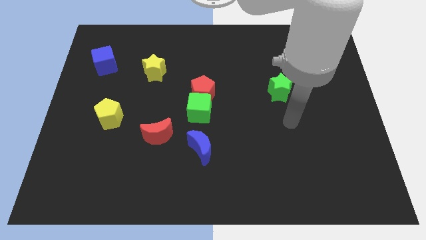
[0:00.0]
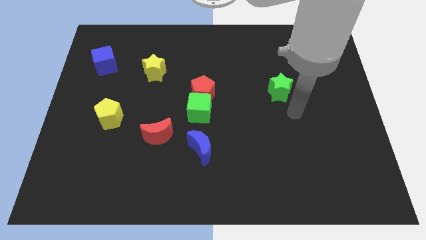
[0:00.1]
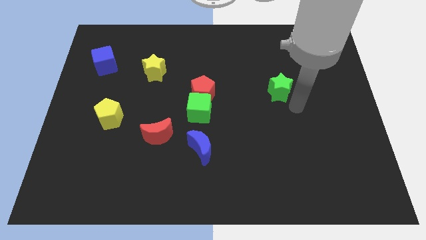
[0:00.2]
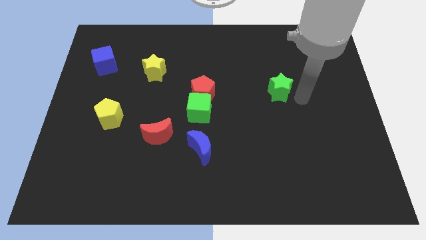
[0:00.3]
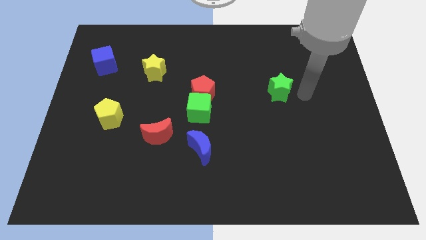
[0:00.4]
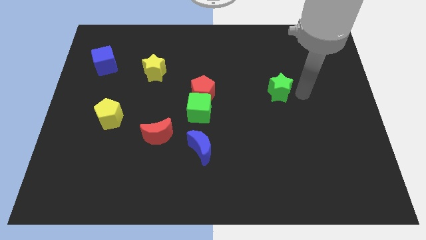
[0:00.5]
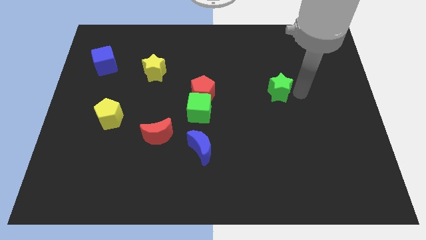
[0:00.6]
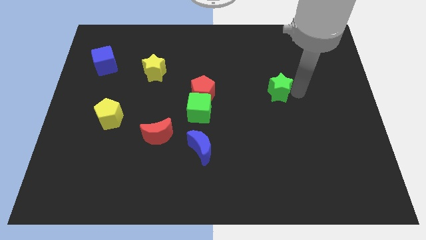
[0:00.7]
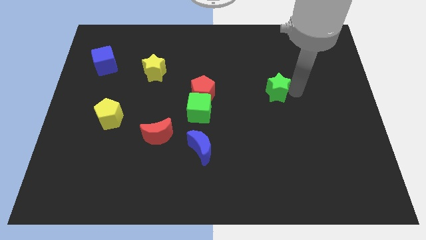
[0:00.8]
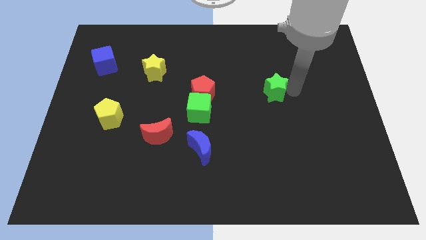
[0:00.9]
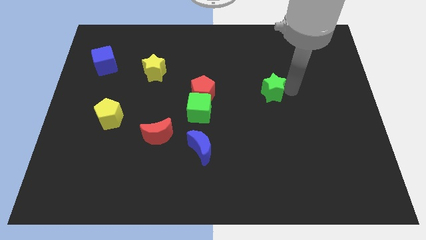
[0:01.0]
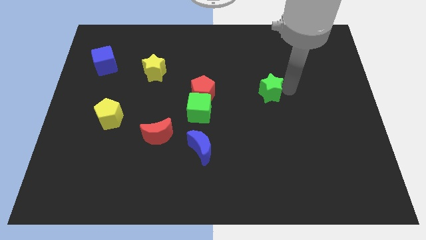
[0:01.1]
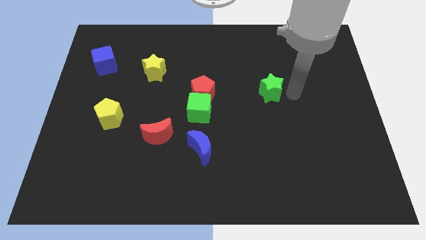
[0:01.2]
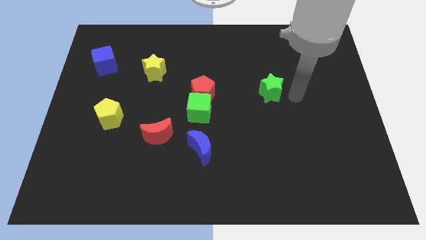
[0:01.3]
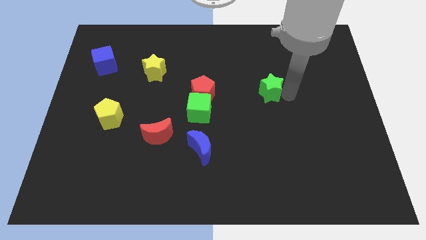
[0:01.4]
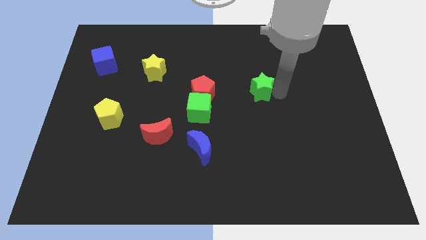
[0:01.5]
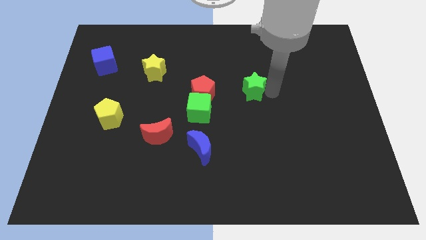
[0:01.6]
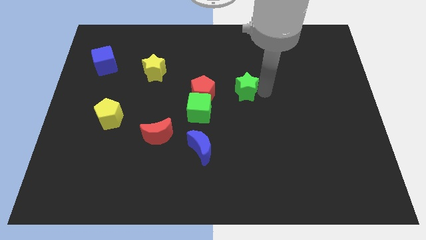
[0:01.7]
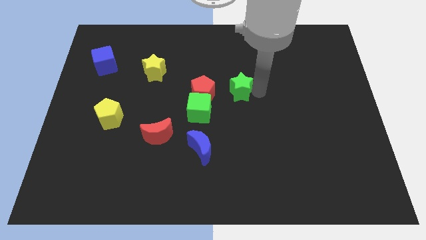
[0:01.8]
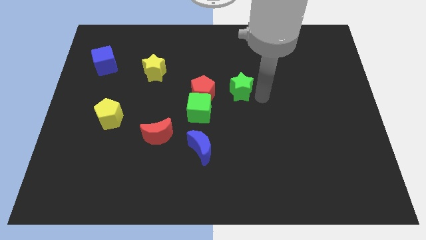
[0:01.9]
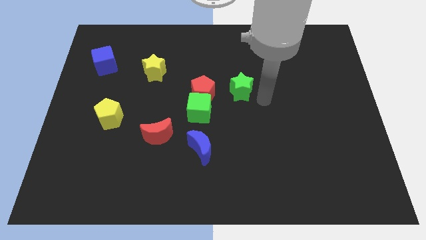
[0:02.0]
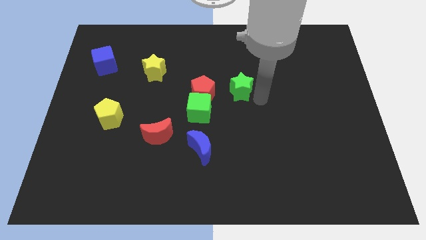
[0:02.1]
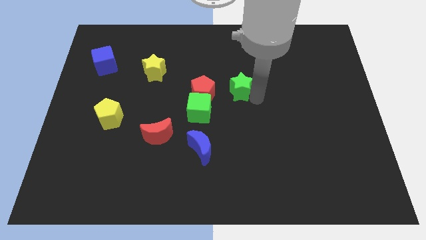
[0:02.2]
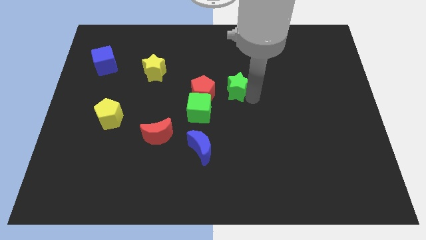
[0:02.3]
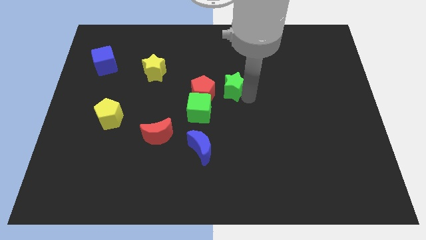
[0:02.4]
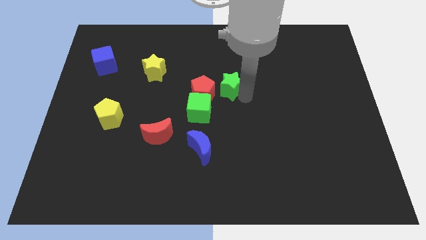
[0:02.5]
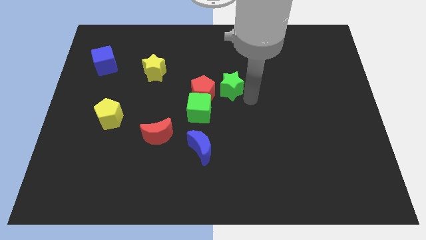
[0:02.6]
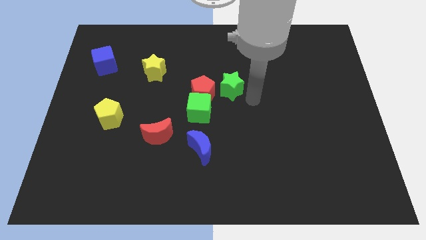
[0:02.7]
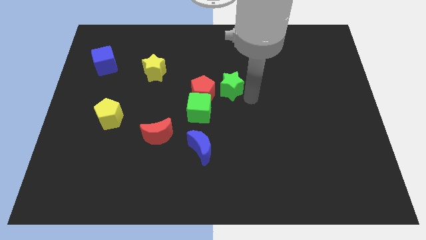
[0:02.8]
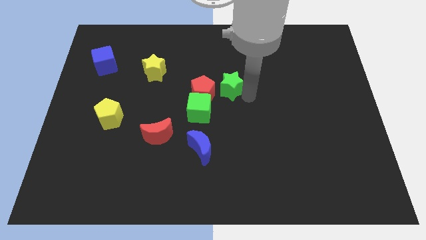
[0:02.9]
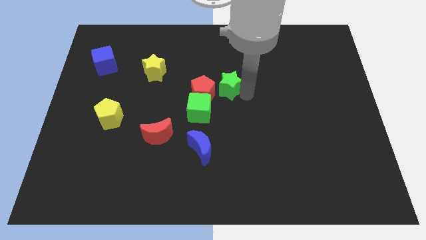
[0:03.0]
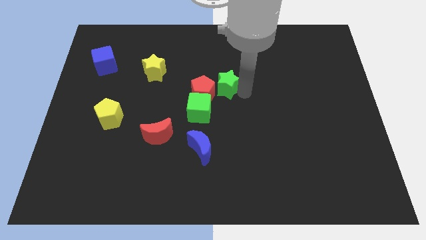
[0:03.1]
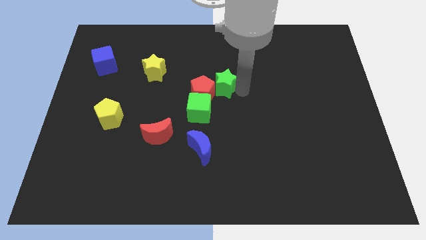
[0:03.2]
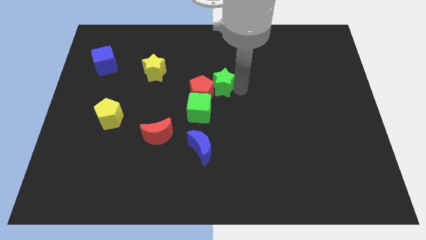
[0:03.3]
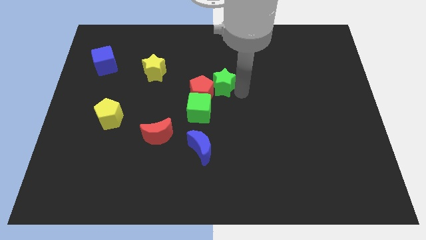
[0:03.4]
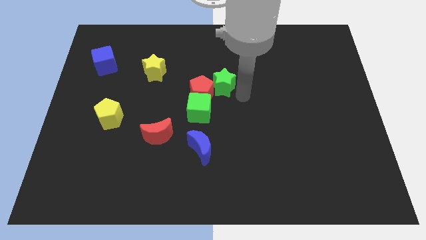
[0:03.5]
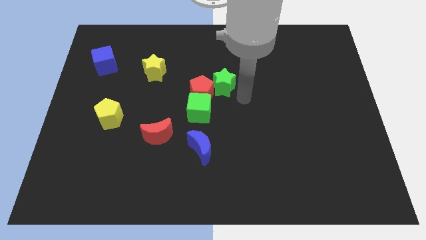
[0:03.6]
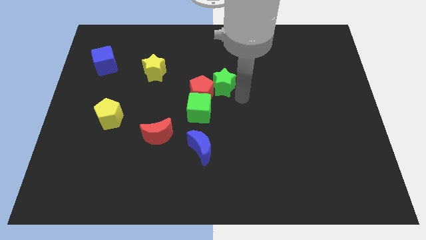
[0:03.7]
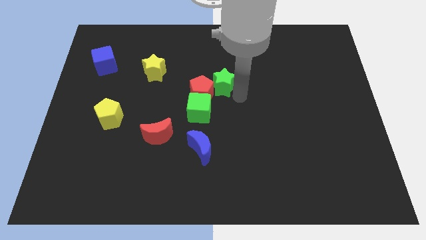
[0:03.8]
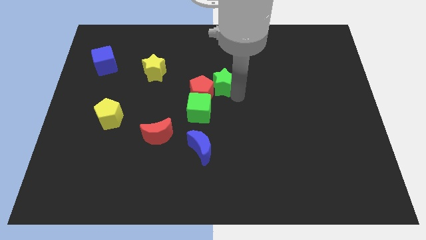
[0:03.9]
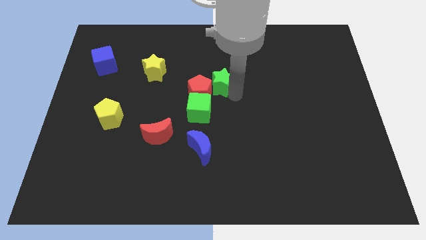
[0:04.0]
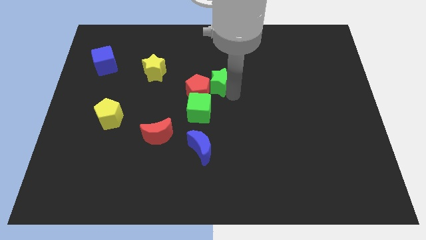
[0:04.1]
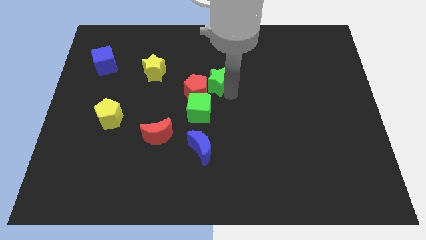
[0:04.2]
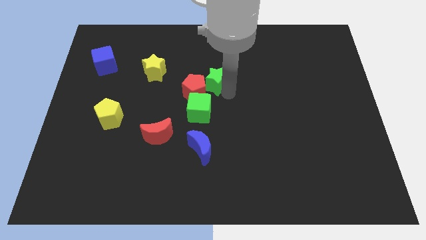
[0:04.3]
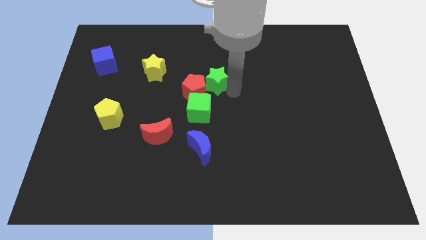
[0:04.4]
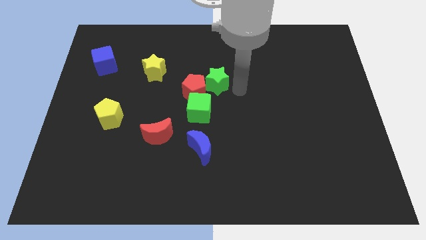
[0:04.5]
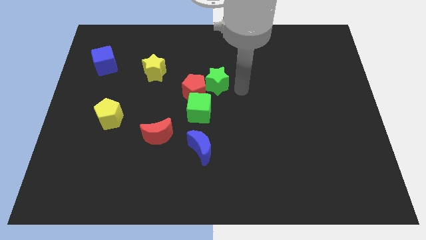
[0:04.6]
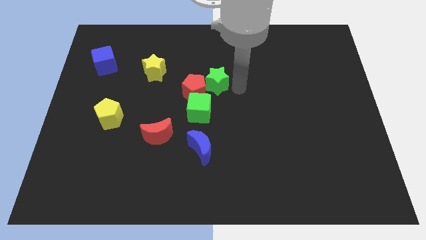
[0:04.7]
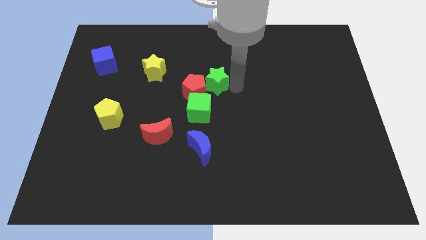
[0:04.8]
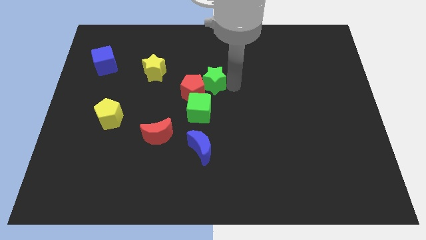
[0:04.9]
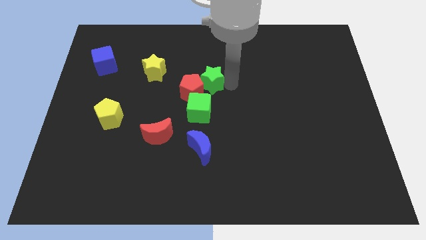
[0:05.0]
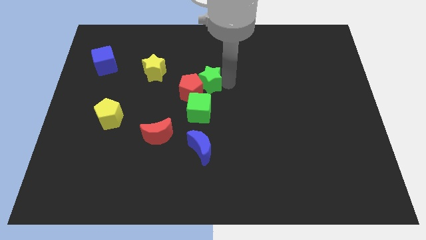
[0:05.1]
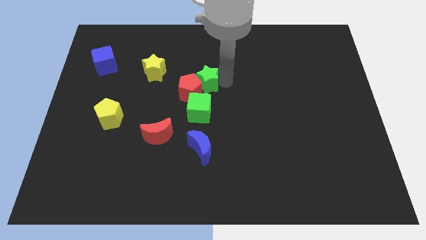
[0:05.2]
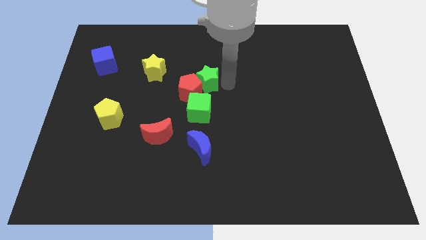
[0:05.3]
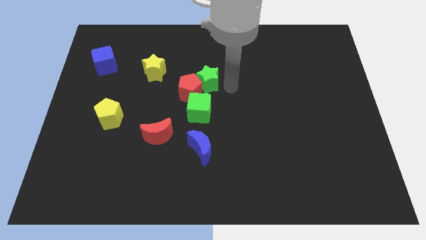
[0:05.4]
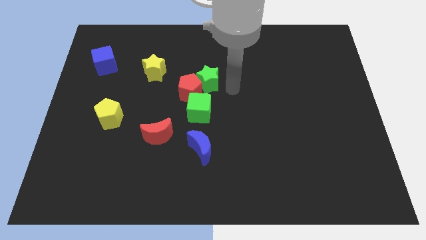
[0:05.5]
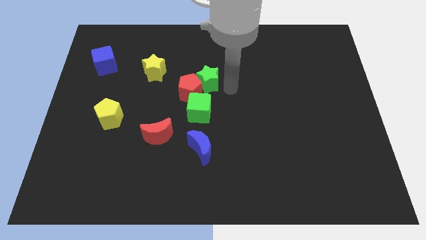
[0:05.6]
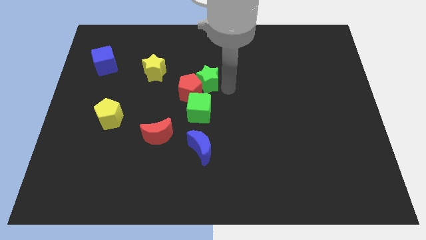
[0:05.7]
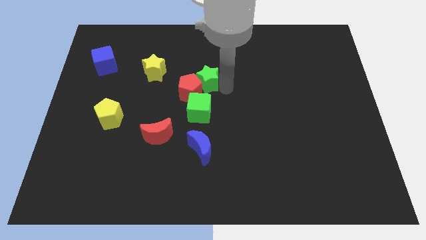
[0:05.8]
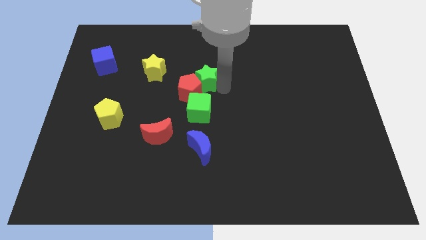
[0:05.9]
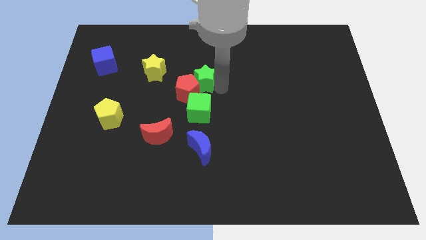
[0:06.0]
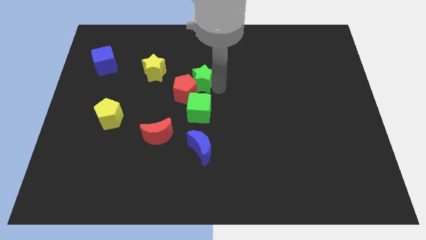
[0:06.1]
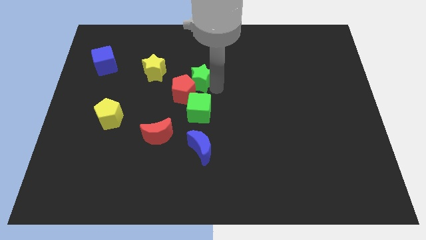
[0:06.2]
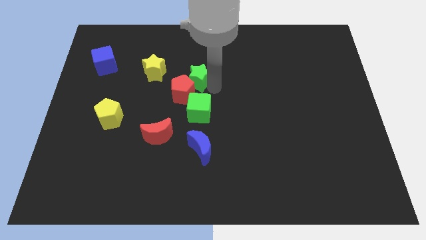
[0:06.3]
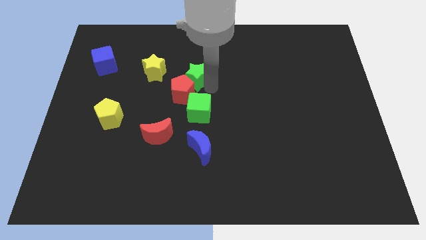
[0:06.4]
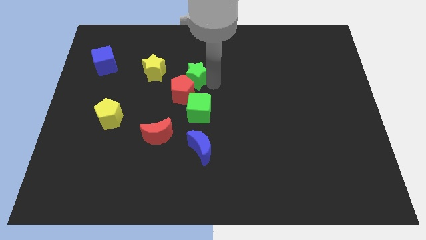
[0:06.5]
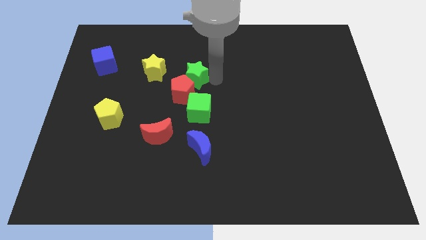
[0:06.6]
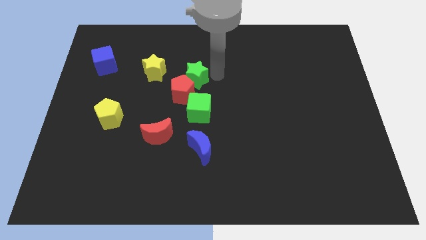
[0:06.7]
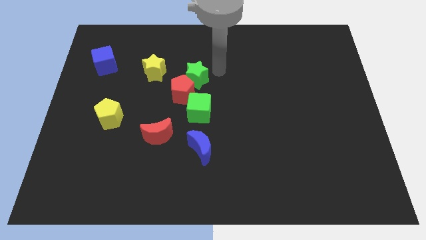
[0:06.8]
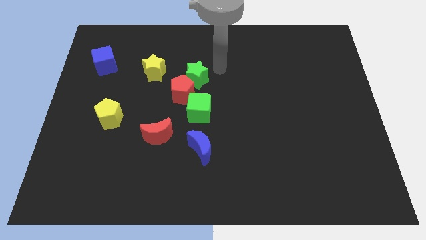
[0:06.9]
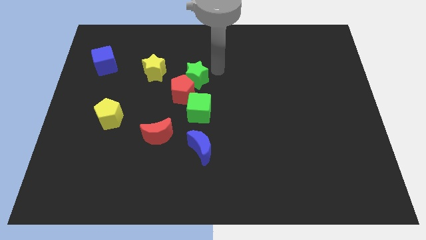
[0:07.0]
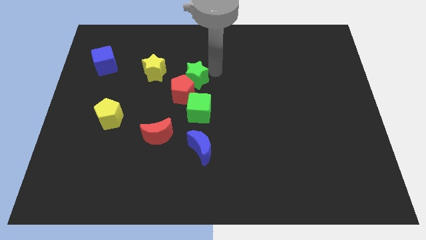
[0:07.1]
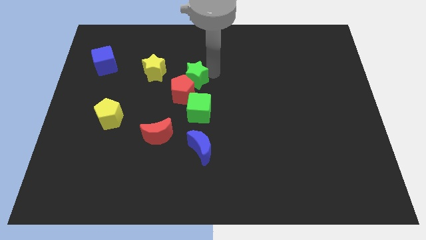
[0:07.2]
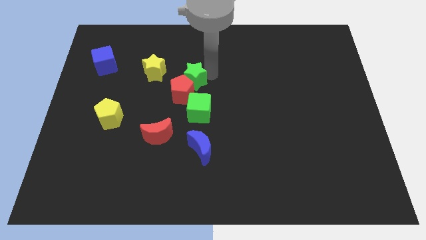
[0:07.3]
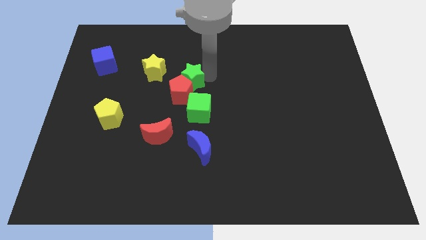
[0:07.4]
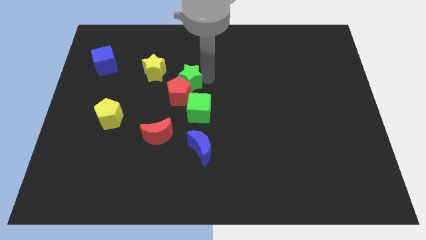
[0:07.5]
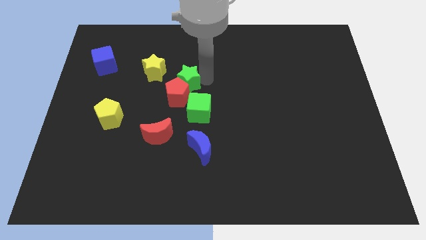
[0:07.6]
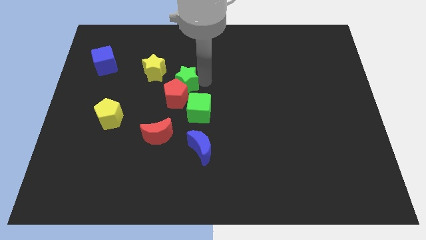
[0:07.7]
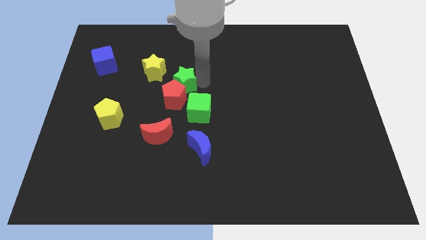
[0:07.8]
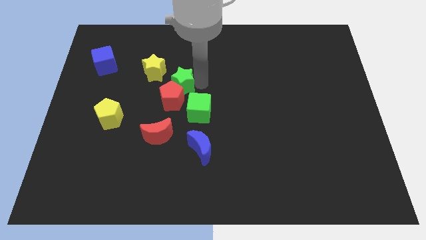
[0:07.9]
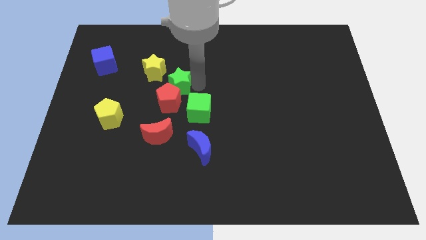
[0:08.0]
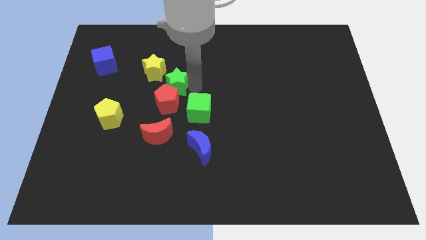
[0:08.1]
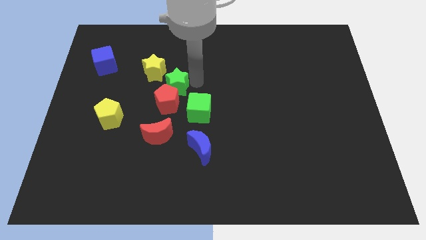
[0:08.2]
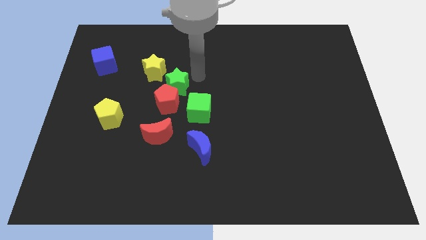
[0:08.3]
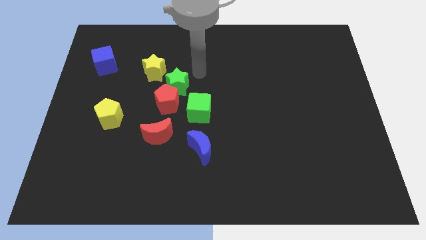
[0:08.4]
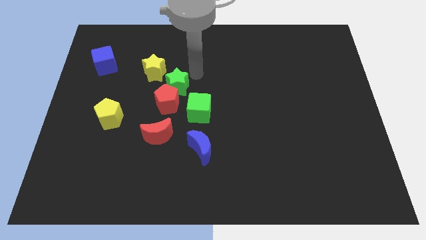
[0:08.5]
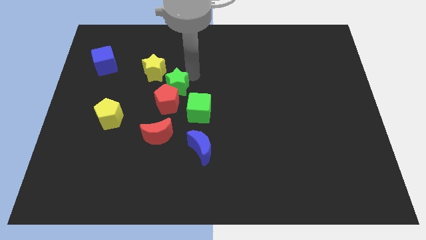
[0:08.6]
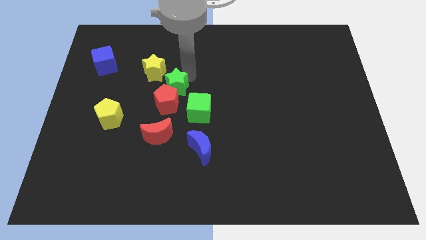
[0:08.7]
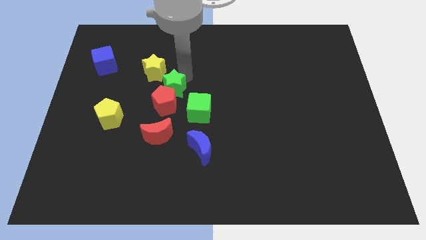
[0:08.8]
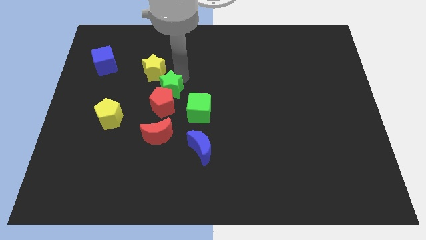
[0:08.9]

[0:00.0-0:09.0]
push the green star to the bottom side of the yellow star
